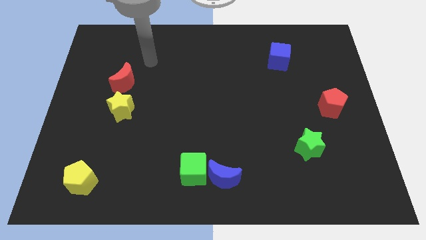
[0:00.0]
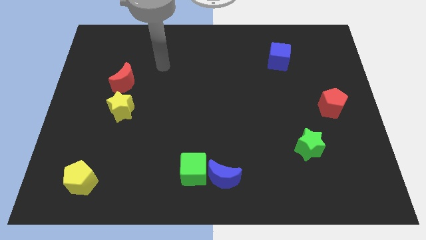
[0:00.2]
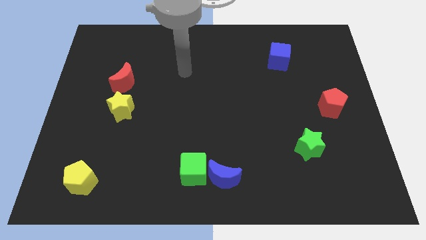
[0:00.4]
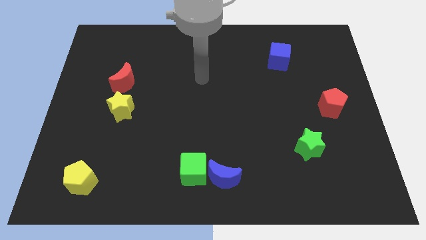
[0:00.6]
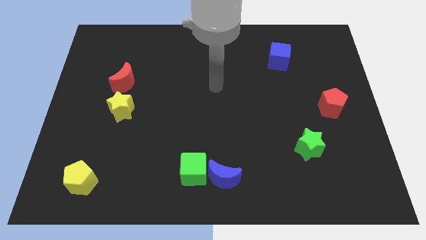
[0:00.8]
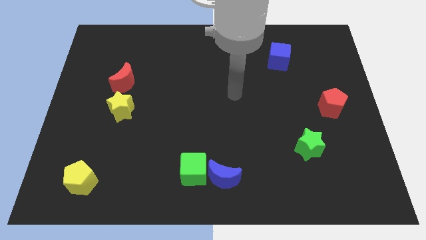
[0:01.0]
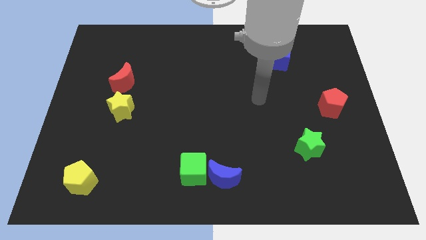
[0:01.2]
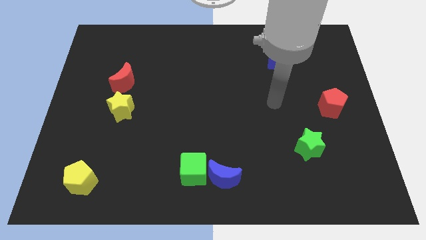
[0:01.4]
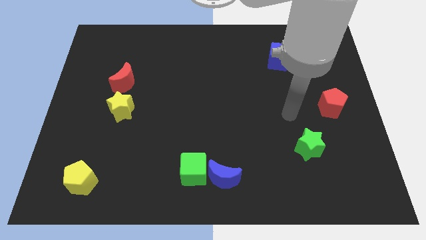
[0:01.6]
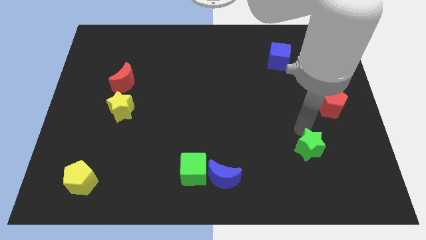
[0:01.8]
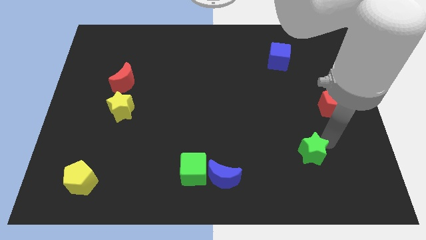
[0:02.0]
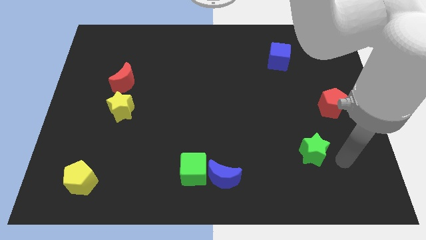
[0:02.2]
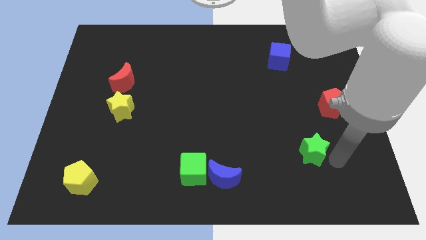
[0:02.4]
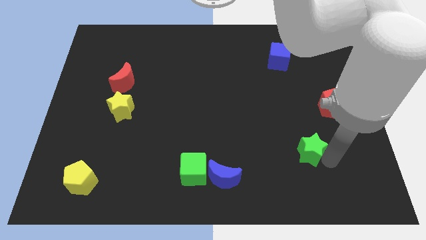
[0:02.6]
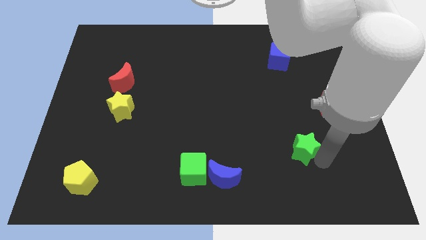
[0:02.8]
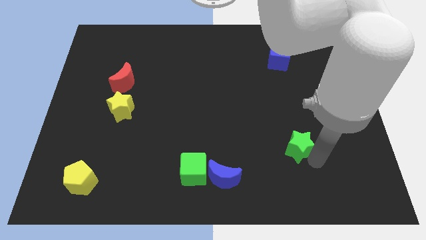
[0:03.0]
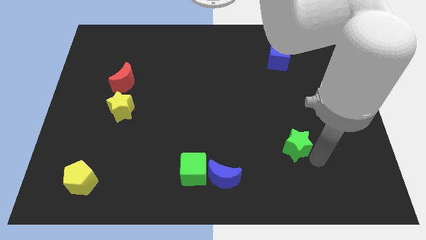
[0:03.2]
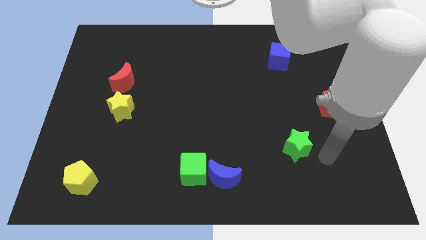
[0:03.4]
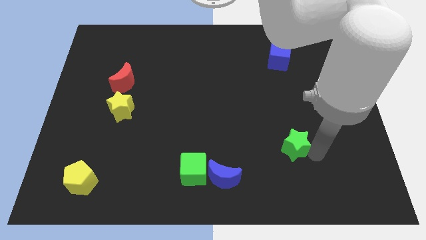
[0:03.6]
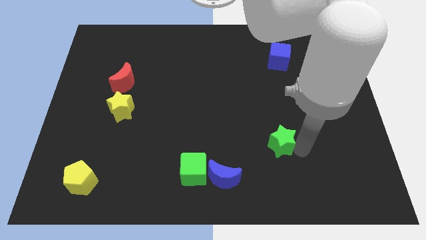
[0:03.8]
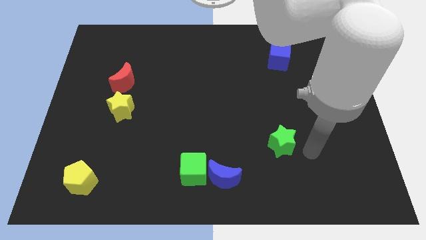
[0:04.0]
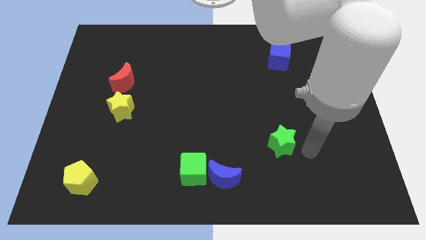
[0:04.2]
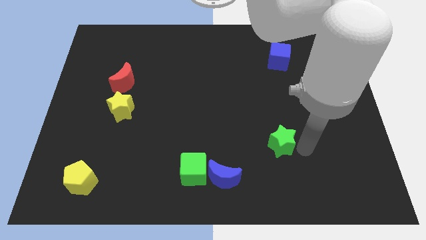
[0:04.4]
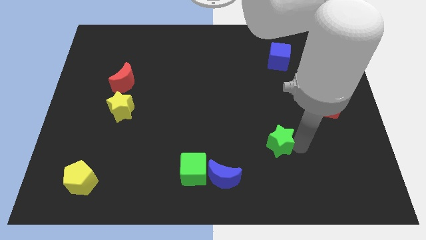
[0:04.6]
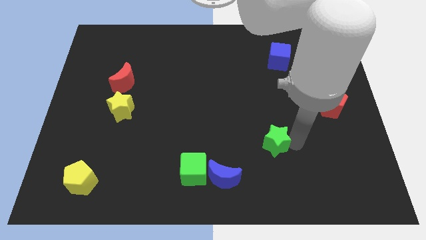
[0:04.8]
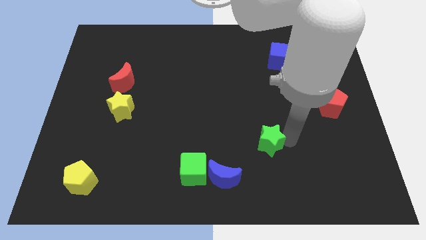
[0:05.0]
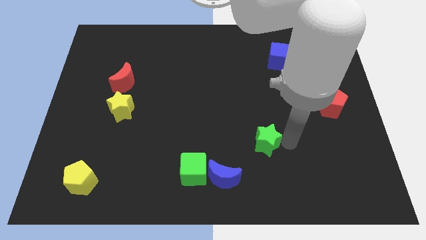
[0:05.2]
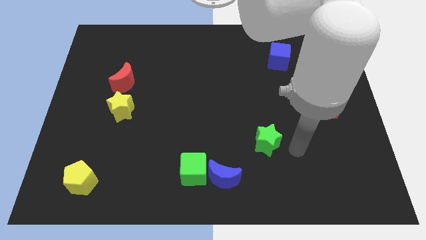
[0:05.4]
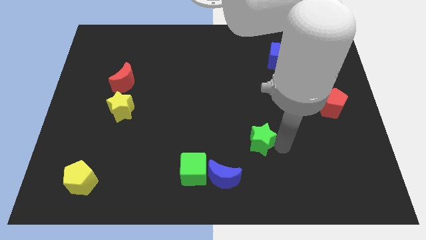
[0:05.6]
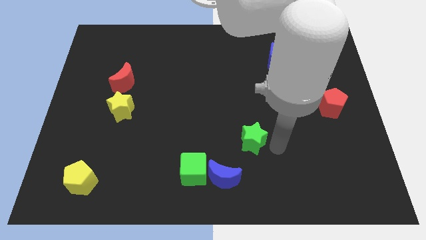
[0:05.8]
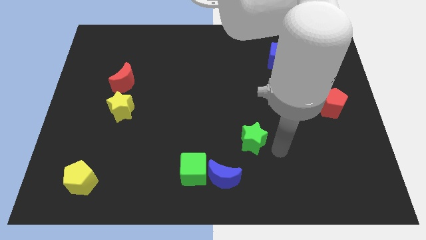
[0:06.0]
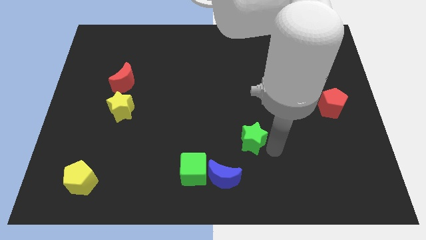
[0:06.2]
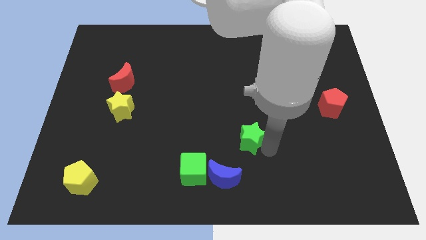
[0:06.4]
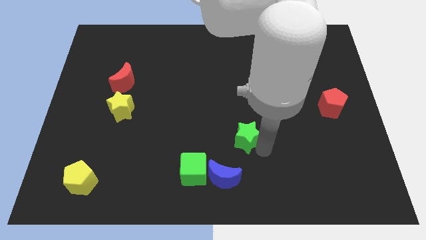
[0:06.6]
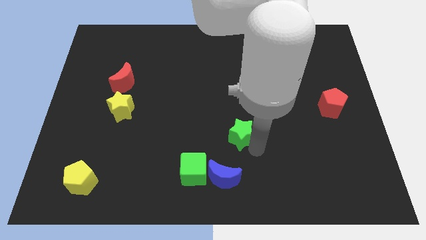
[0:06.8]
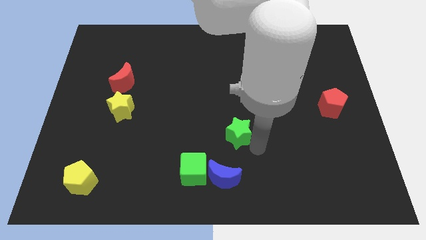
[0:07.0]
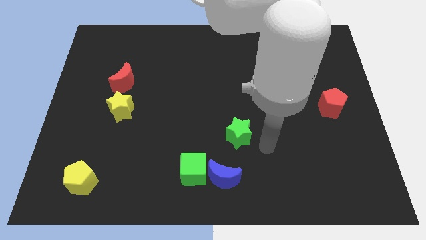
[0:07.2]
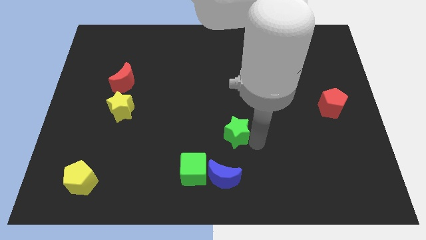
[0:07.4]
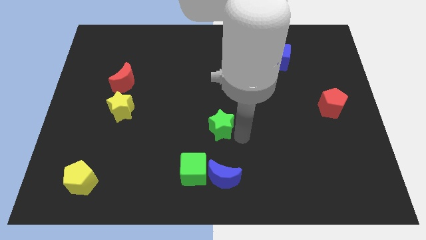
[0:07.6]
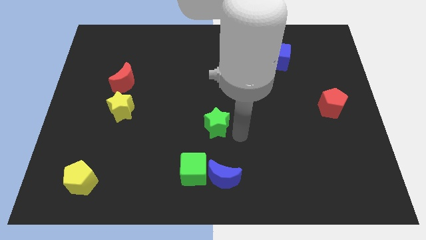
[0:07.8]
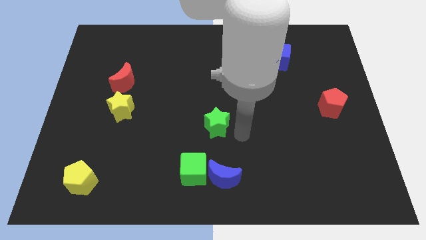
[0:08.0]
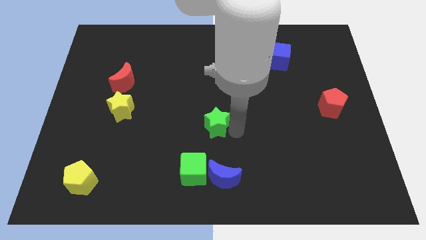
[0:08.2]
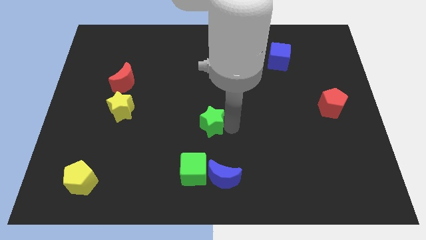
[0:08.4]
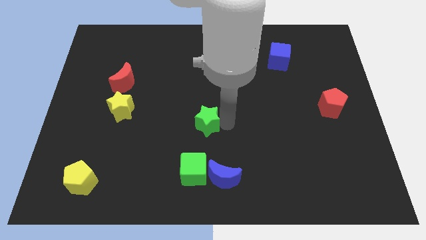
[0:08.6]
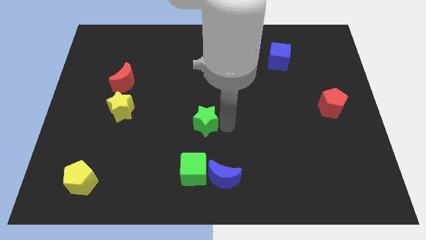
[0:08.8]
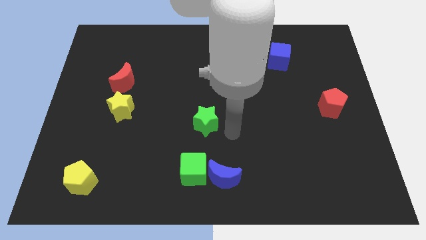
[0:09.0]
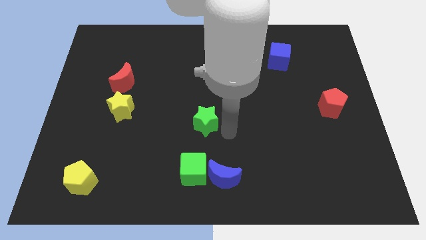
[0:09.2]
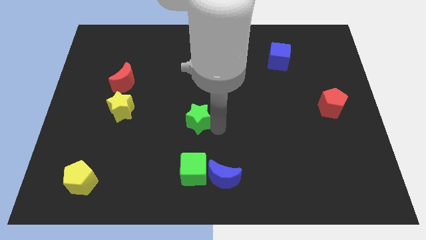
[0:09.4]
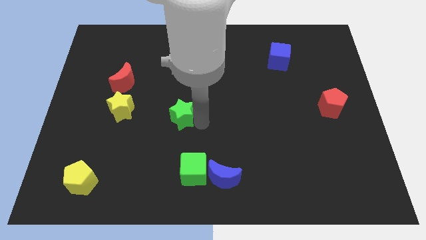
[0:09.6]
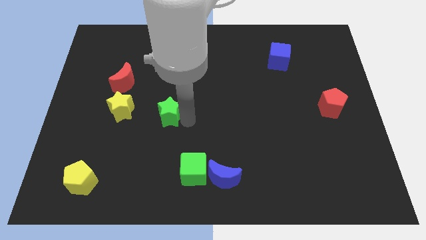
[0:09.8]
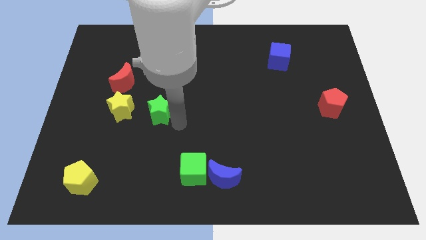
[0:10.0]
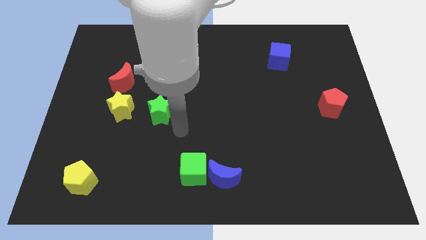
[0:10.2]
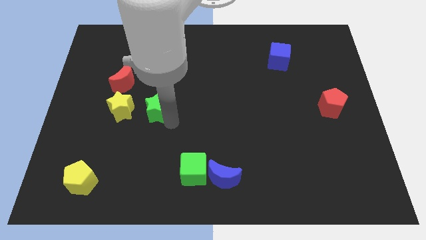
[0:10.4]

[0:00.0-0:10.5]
push the green star to the bottom right side of the red moon

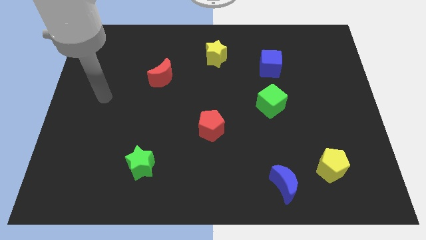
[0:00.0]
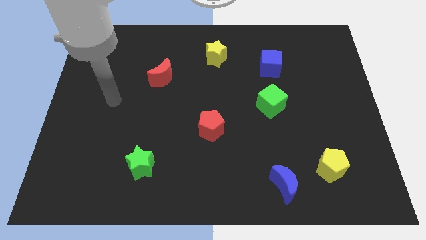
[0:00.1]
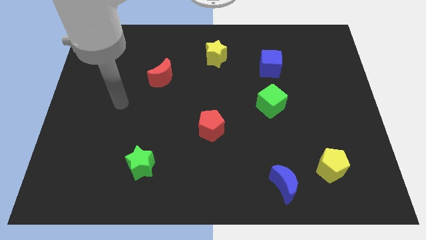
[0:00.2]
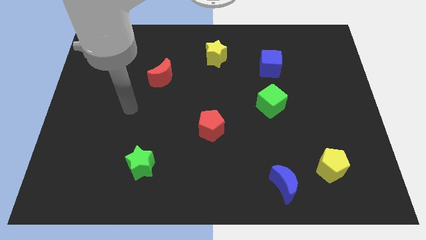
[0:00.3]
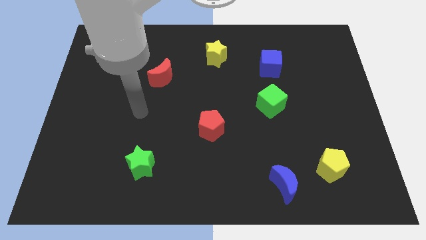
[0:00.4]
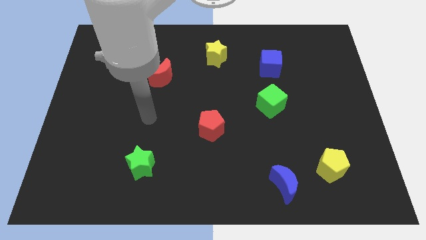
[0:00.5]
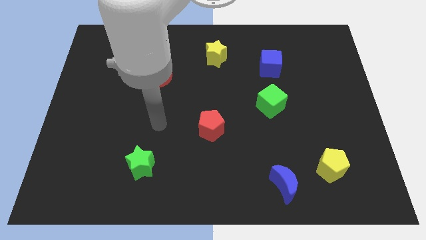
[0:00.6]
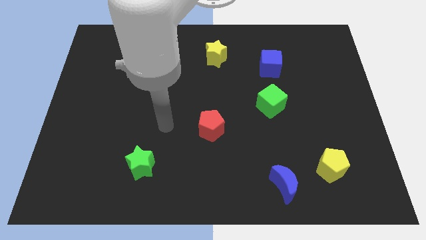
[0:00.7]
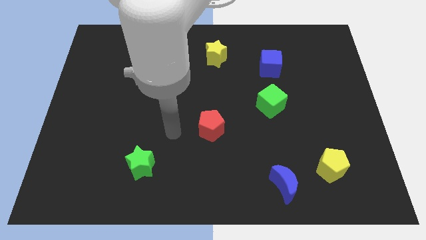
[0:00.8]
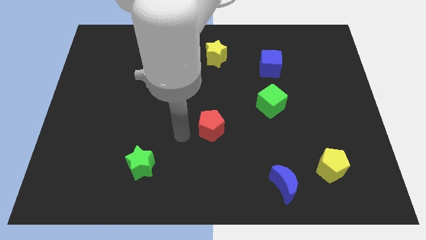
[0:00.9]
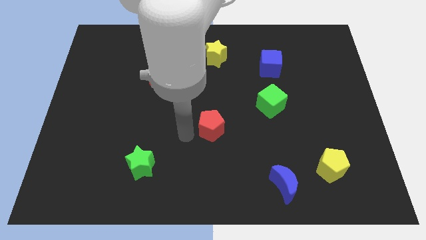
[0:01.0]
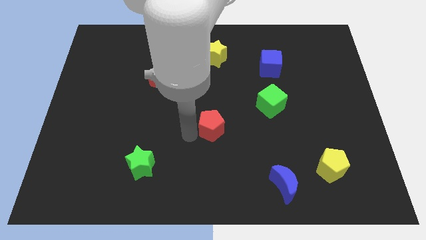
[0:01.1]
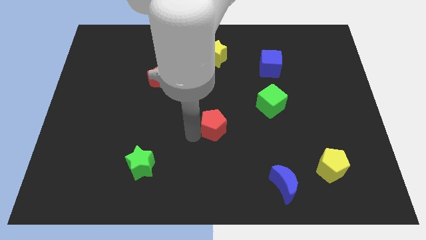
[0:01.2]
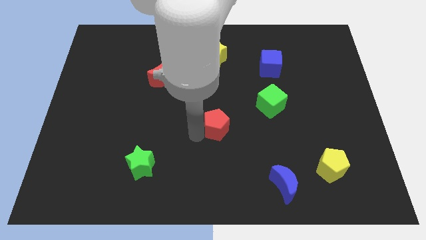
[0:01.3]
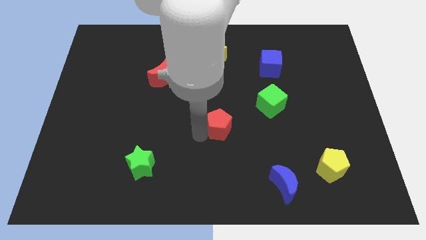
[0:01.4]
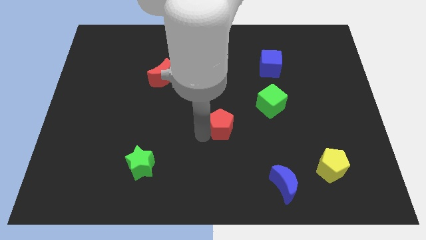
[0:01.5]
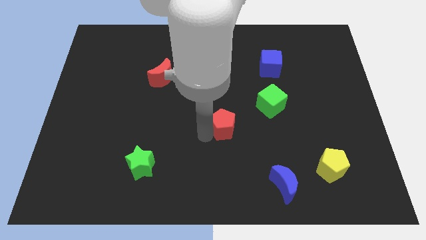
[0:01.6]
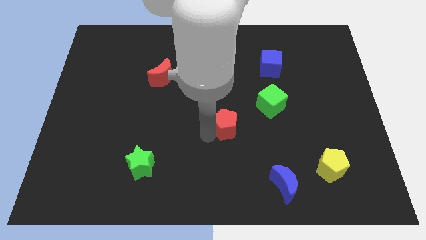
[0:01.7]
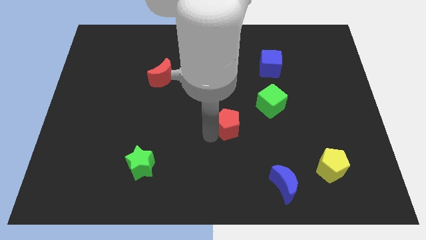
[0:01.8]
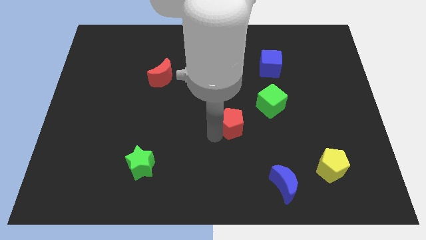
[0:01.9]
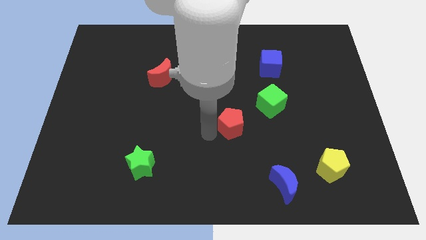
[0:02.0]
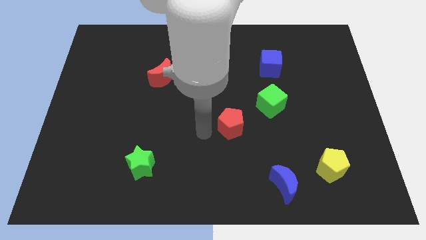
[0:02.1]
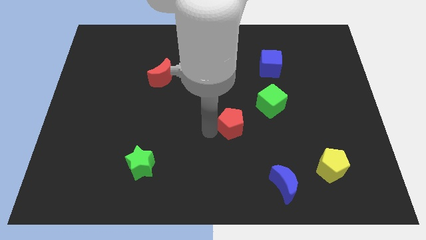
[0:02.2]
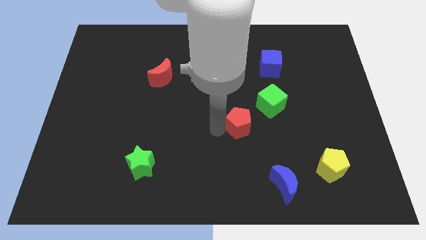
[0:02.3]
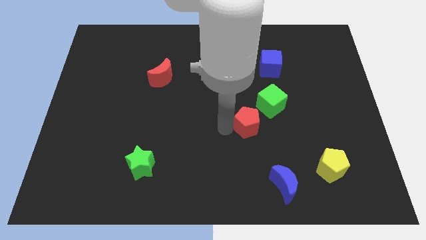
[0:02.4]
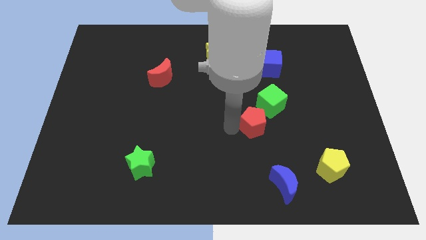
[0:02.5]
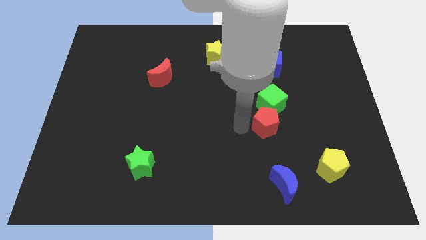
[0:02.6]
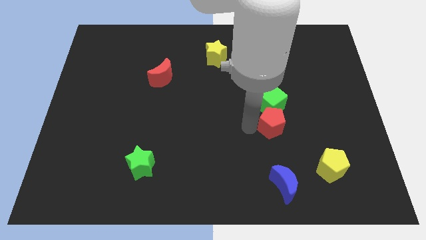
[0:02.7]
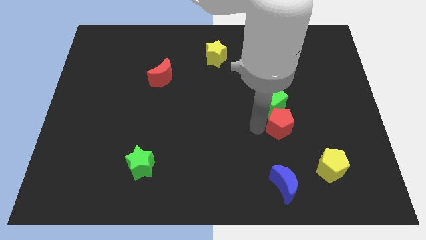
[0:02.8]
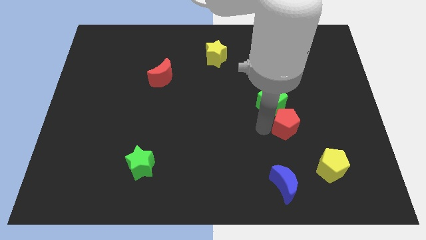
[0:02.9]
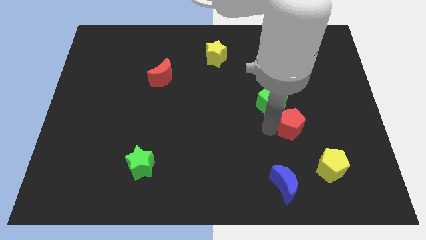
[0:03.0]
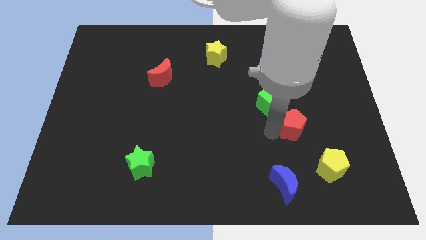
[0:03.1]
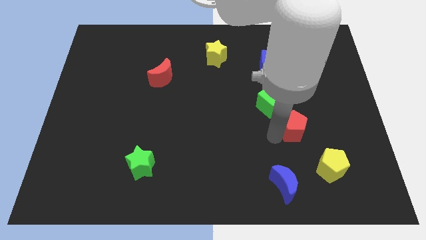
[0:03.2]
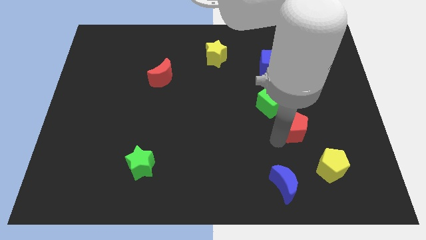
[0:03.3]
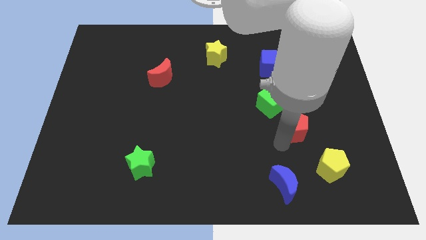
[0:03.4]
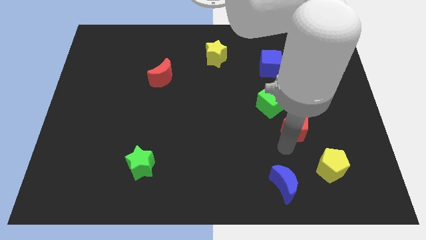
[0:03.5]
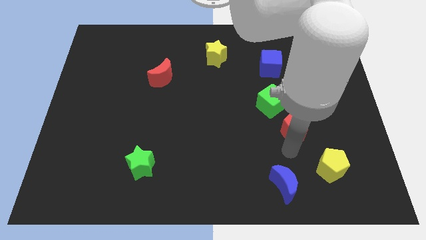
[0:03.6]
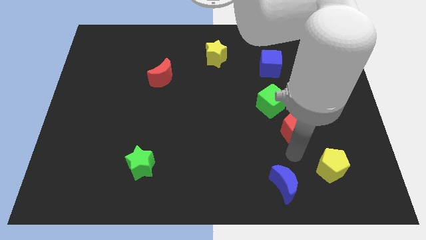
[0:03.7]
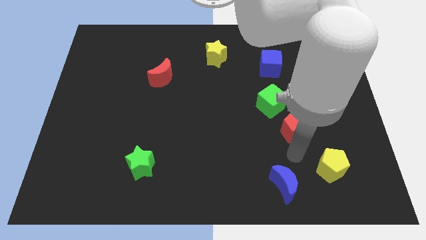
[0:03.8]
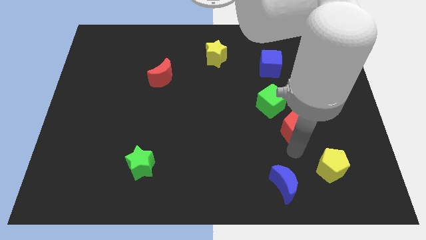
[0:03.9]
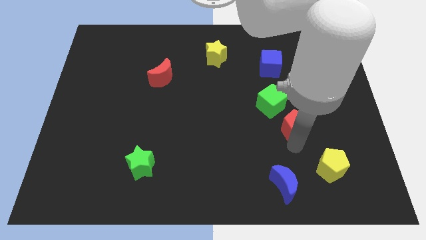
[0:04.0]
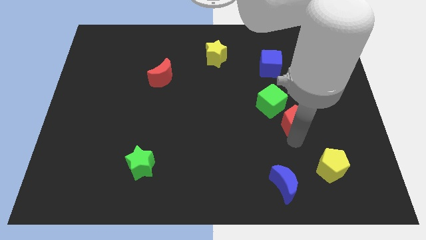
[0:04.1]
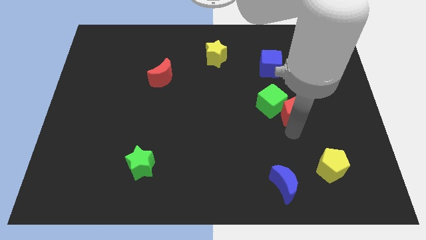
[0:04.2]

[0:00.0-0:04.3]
put the red pentagon to the right side of the green cube
